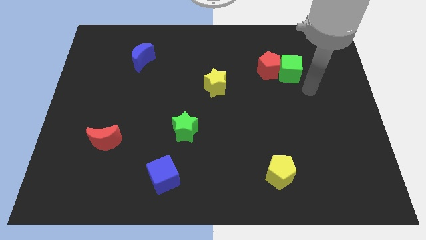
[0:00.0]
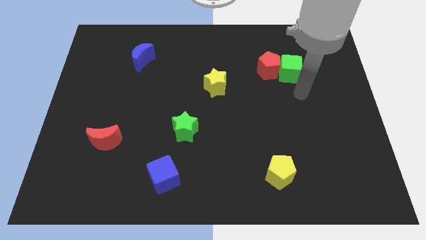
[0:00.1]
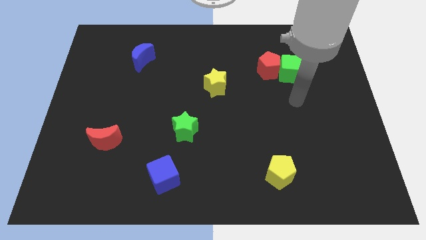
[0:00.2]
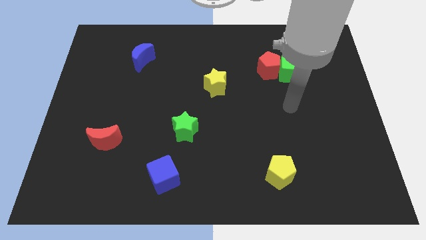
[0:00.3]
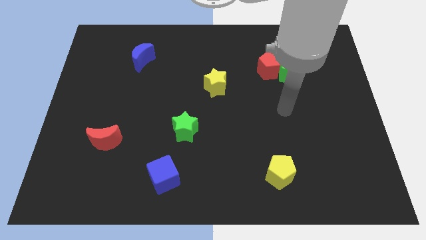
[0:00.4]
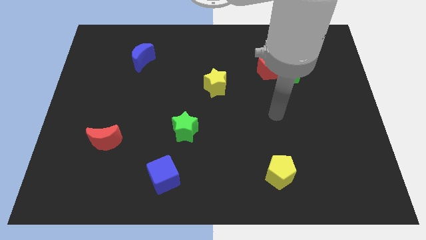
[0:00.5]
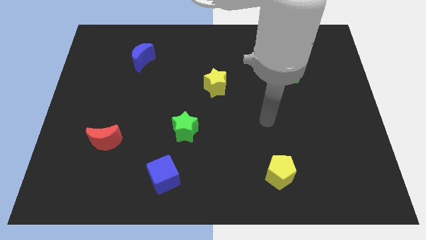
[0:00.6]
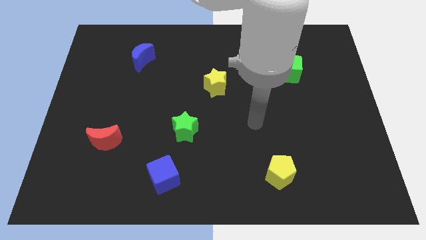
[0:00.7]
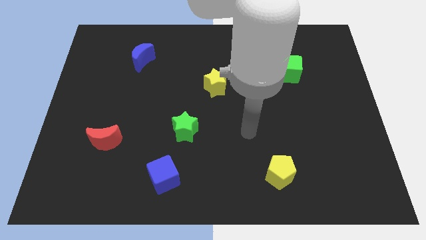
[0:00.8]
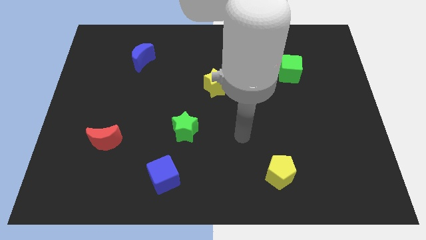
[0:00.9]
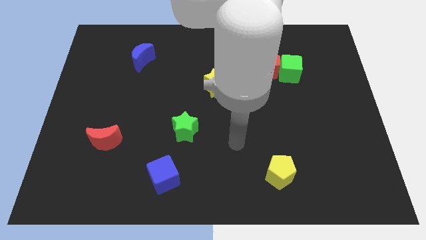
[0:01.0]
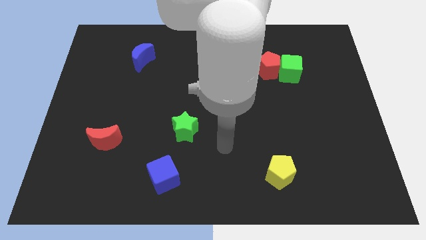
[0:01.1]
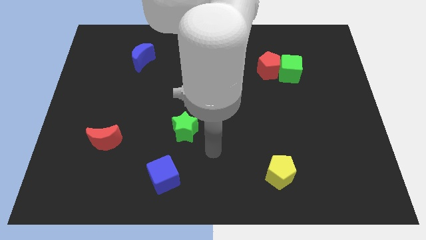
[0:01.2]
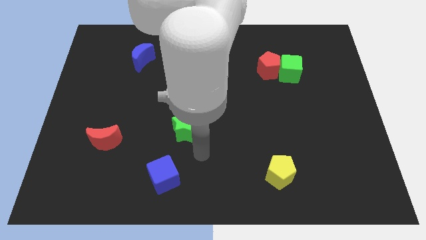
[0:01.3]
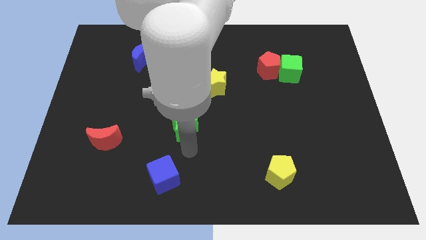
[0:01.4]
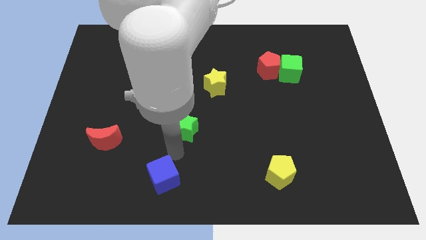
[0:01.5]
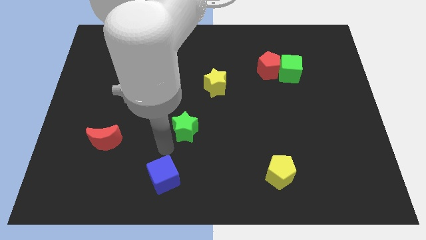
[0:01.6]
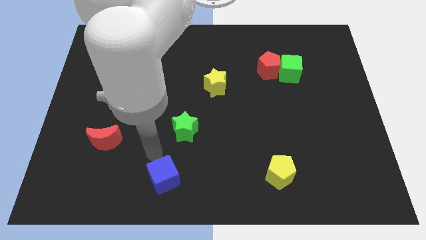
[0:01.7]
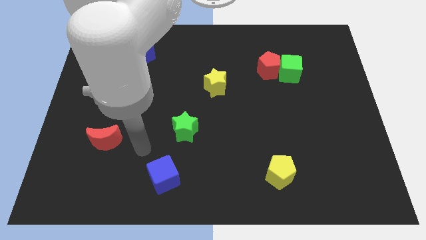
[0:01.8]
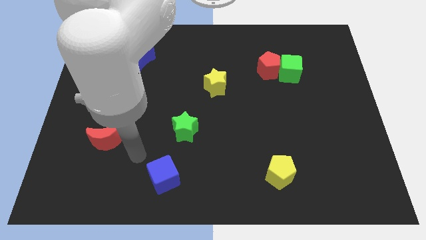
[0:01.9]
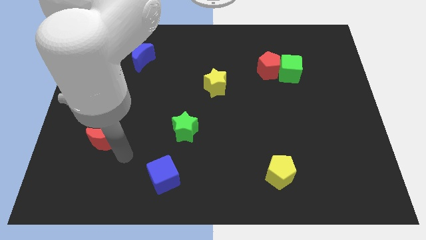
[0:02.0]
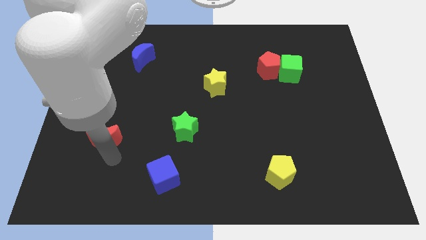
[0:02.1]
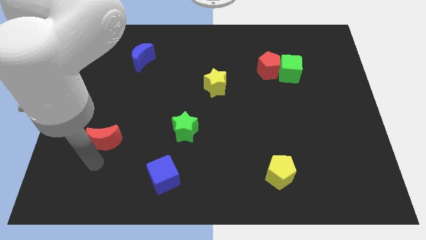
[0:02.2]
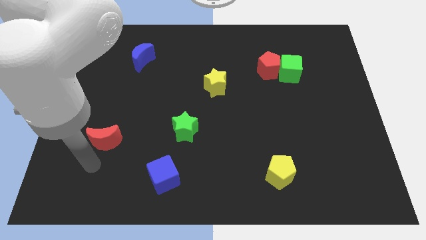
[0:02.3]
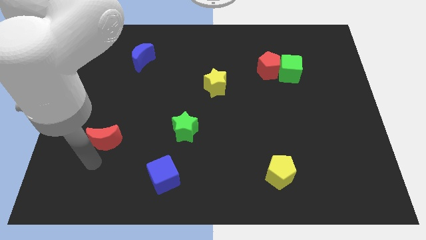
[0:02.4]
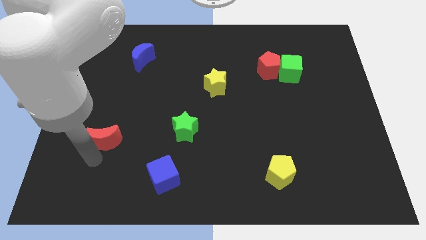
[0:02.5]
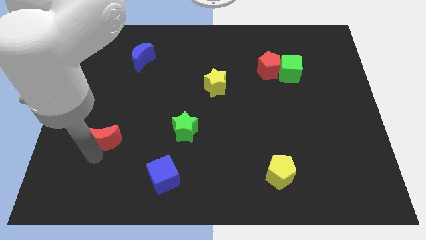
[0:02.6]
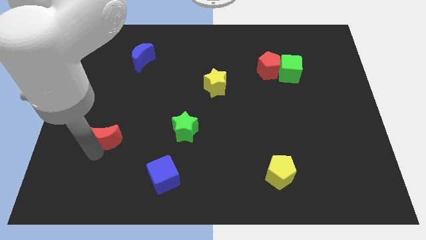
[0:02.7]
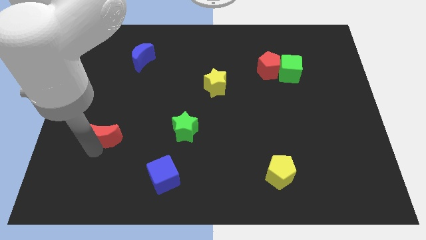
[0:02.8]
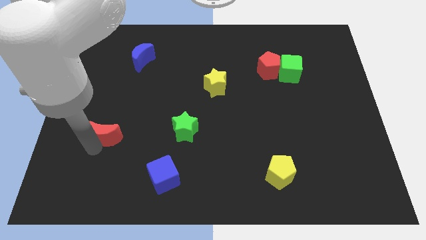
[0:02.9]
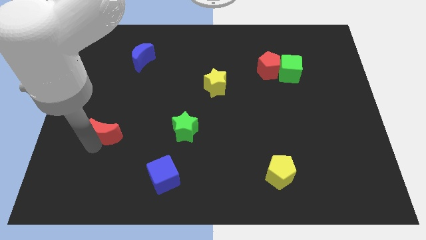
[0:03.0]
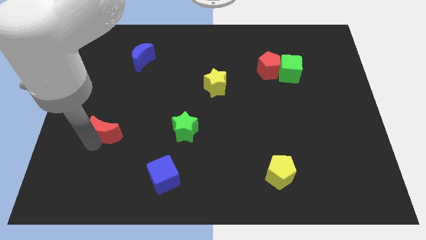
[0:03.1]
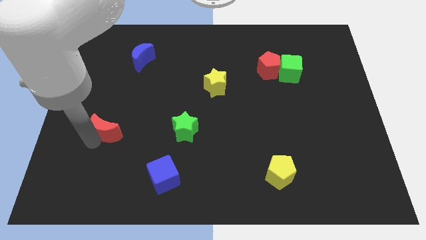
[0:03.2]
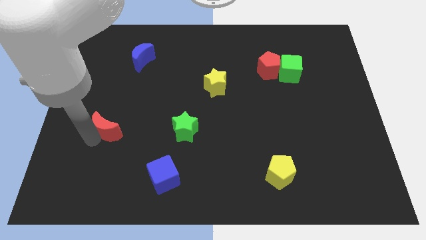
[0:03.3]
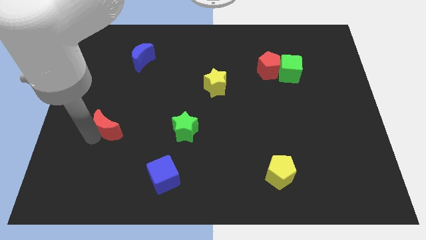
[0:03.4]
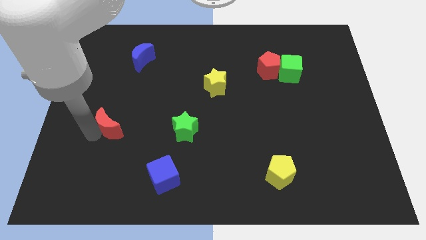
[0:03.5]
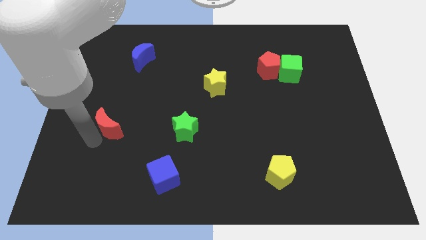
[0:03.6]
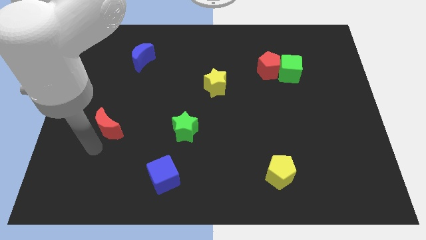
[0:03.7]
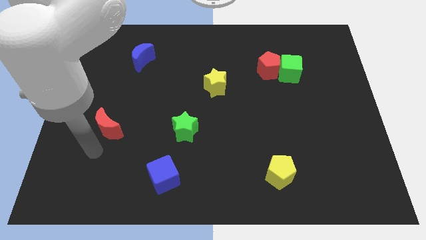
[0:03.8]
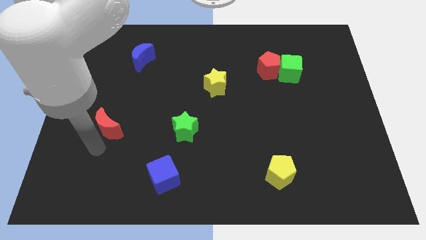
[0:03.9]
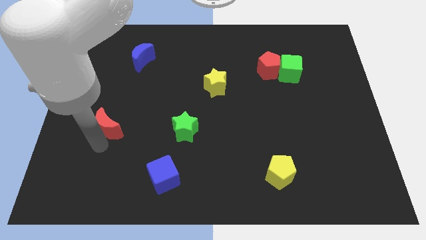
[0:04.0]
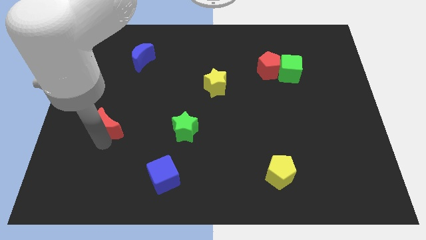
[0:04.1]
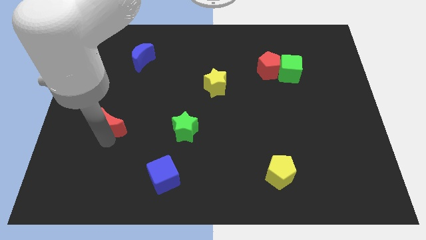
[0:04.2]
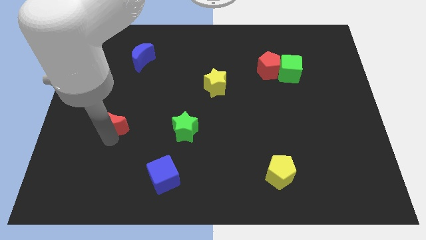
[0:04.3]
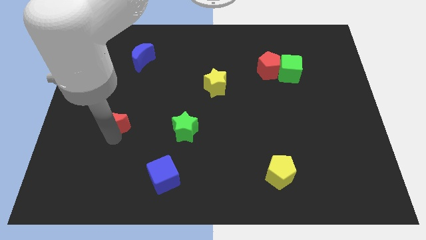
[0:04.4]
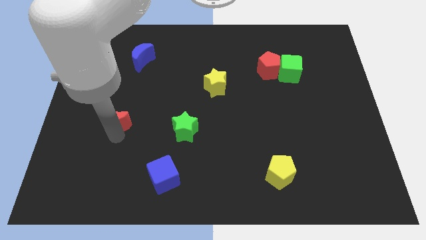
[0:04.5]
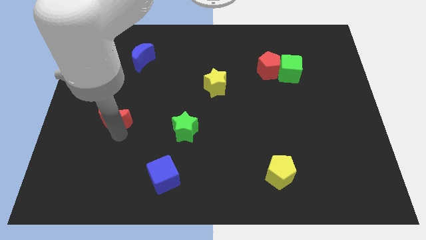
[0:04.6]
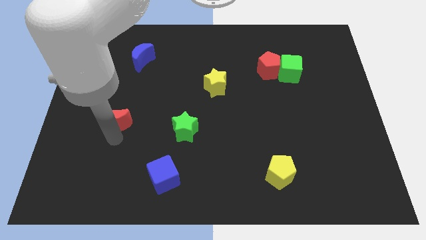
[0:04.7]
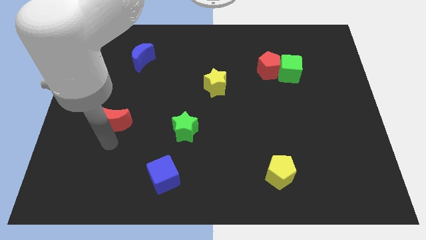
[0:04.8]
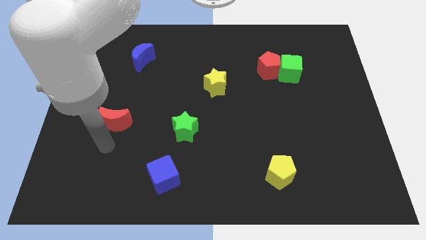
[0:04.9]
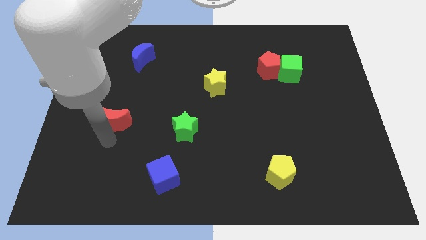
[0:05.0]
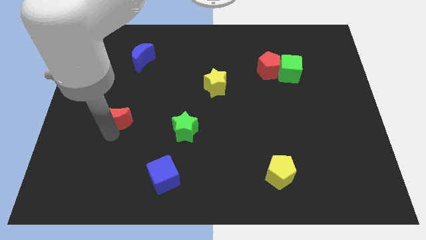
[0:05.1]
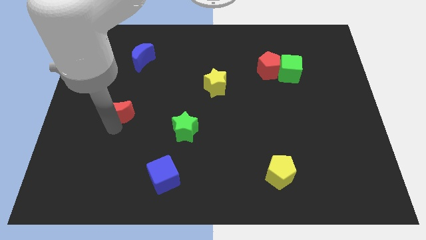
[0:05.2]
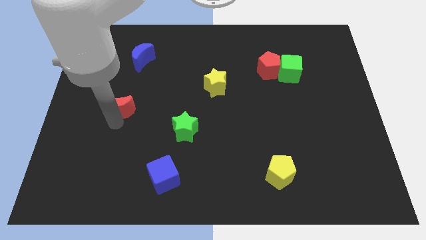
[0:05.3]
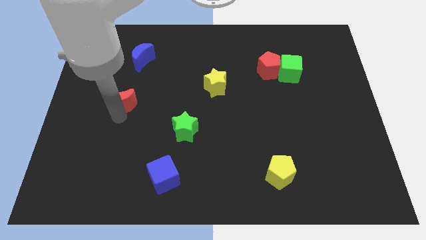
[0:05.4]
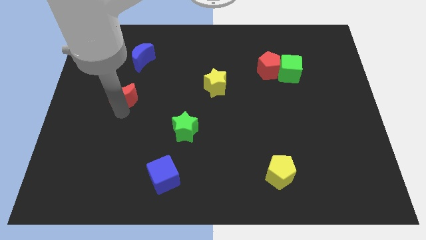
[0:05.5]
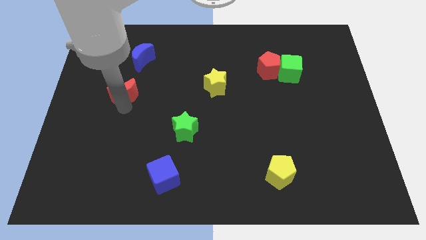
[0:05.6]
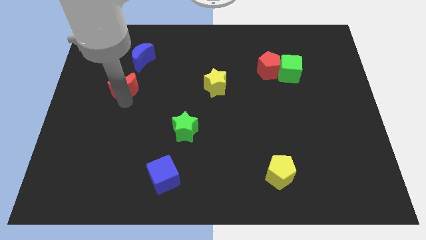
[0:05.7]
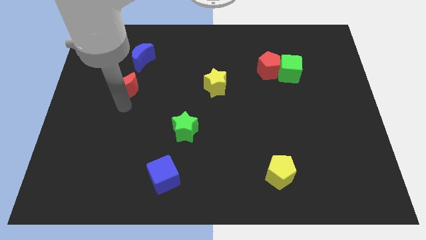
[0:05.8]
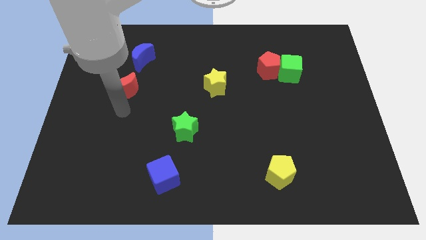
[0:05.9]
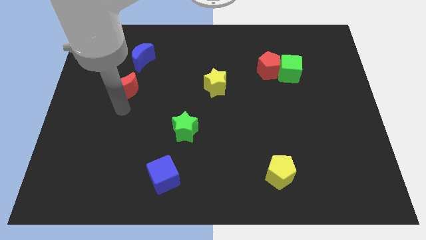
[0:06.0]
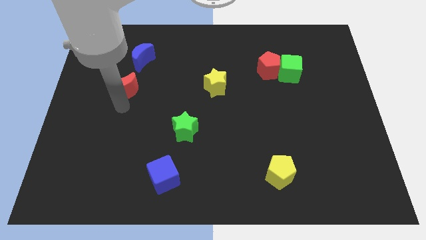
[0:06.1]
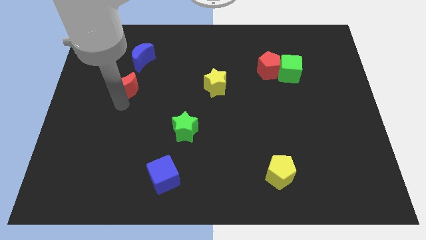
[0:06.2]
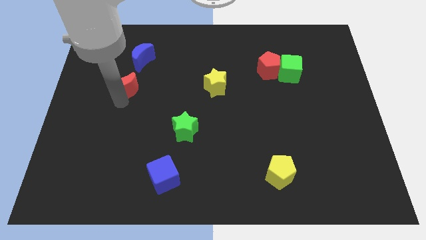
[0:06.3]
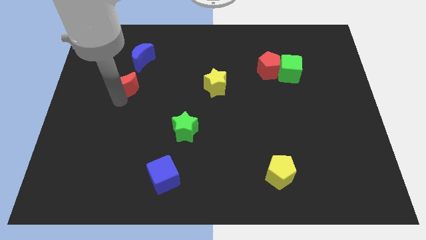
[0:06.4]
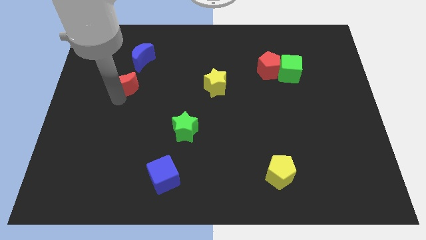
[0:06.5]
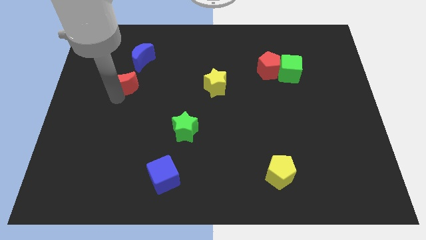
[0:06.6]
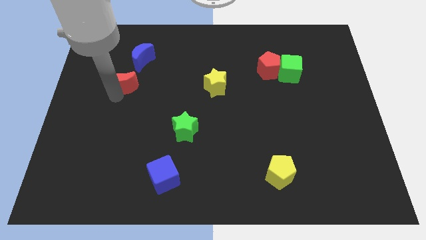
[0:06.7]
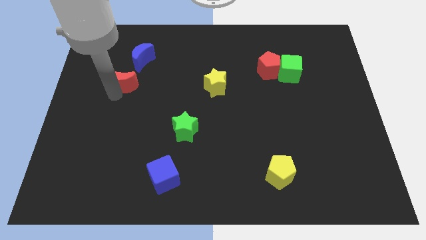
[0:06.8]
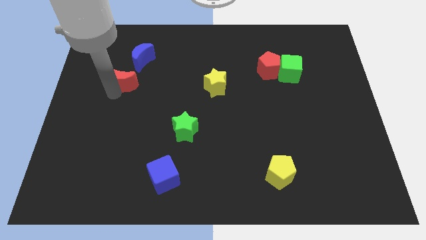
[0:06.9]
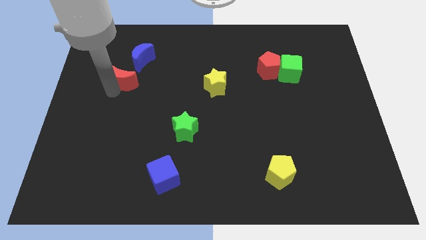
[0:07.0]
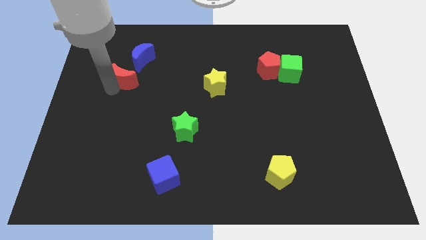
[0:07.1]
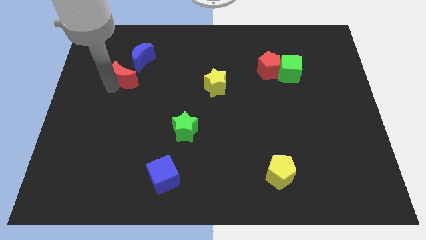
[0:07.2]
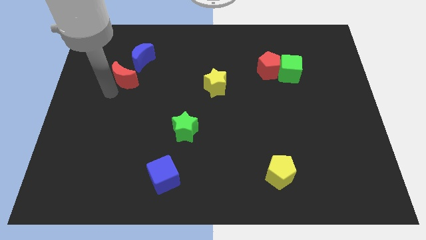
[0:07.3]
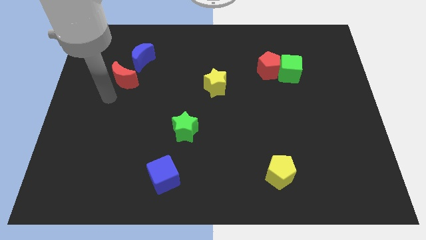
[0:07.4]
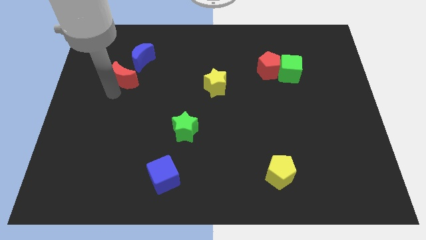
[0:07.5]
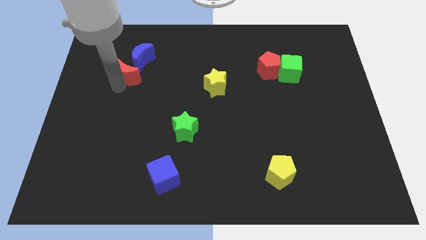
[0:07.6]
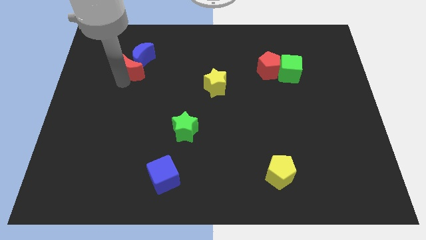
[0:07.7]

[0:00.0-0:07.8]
put the red moon to the blue moon
